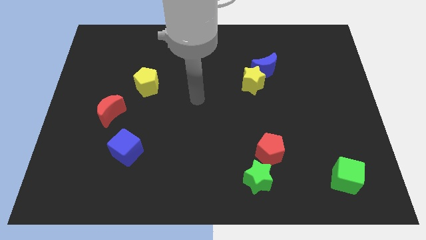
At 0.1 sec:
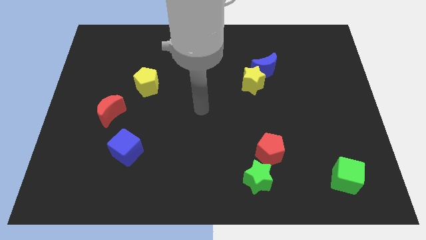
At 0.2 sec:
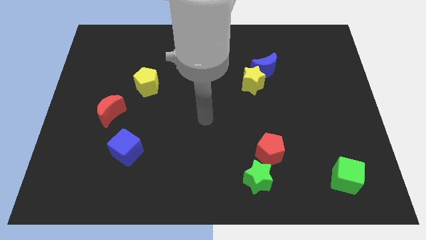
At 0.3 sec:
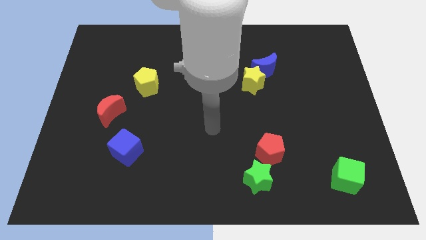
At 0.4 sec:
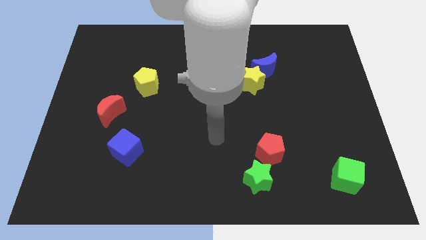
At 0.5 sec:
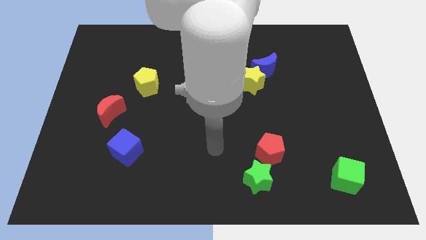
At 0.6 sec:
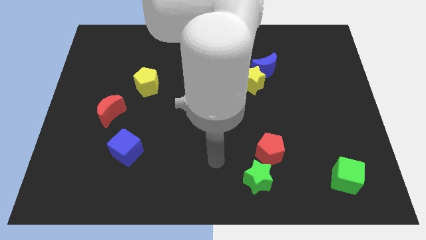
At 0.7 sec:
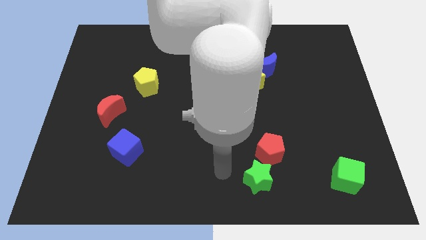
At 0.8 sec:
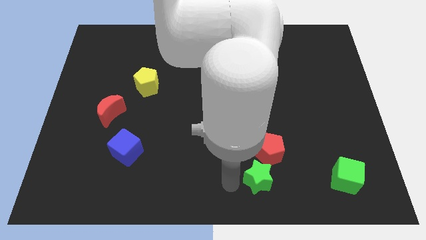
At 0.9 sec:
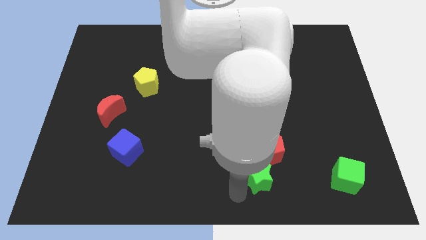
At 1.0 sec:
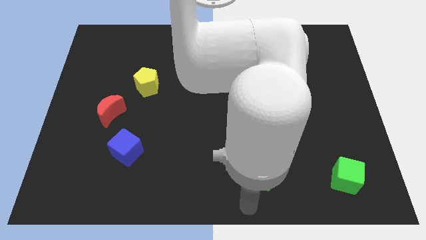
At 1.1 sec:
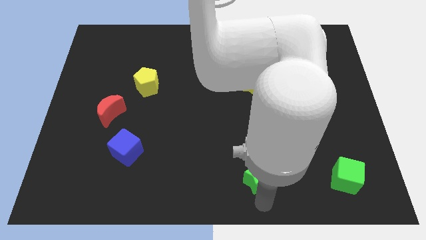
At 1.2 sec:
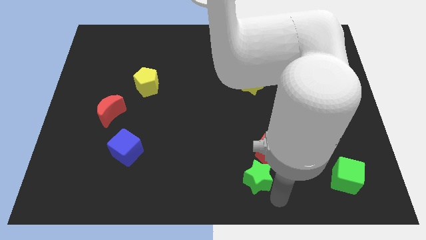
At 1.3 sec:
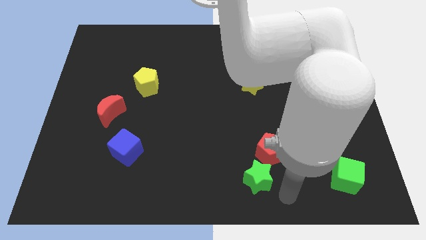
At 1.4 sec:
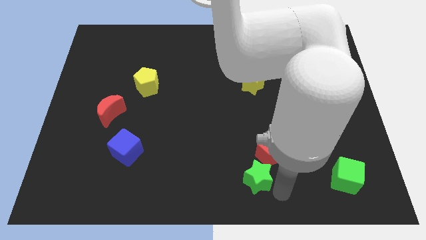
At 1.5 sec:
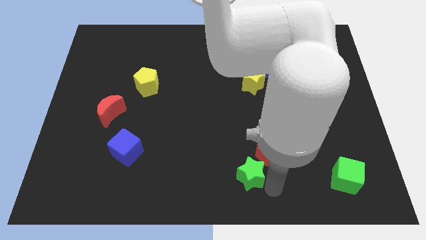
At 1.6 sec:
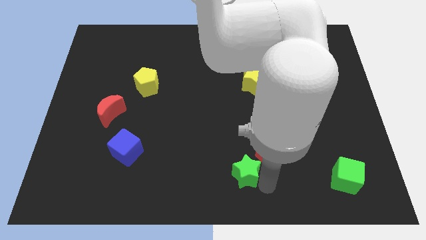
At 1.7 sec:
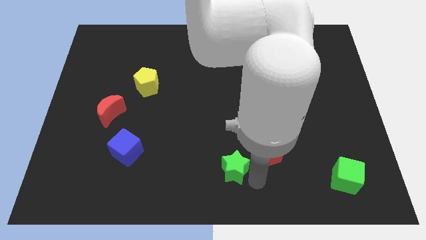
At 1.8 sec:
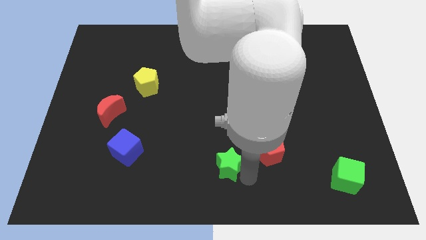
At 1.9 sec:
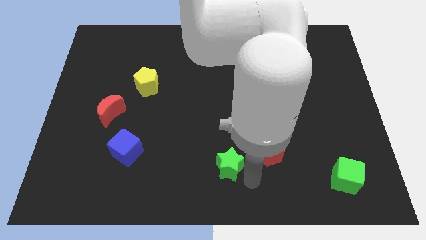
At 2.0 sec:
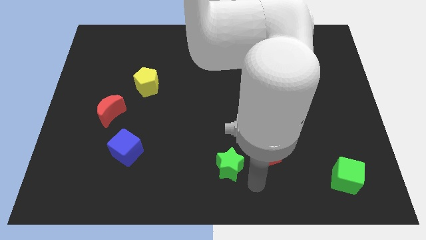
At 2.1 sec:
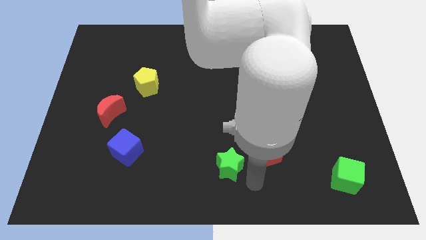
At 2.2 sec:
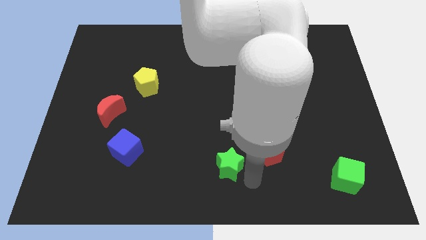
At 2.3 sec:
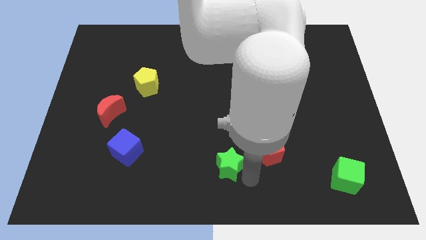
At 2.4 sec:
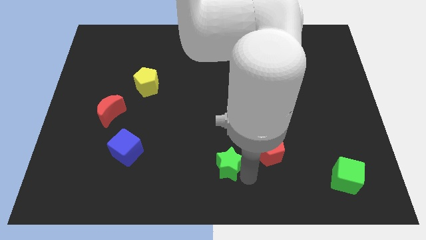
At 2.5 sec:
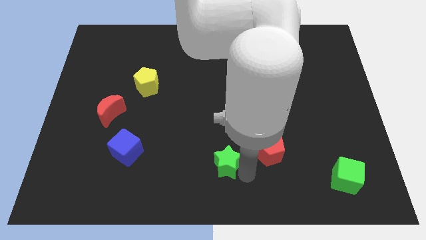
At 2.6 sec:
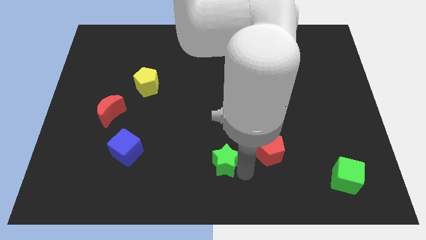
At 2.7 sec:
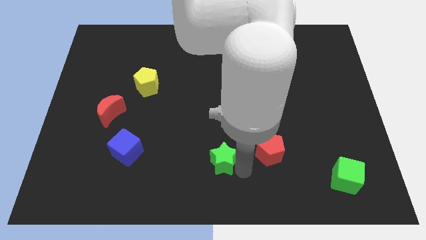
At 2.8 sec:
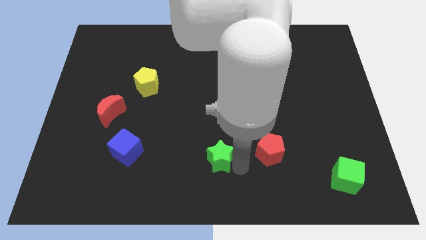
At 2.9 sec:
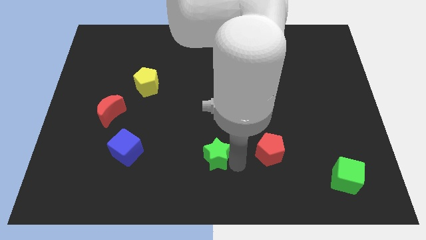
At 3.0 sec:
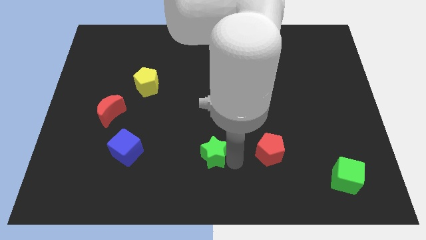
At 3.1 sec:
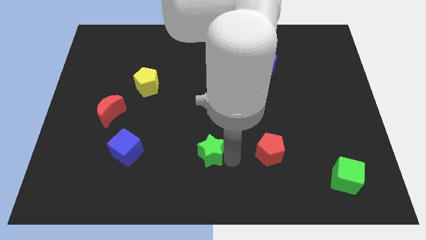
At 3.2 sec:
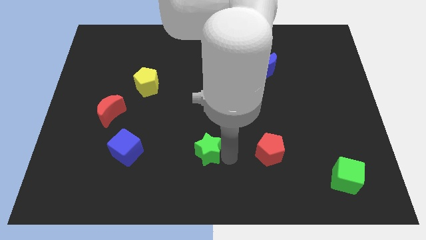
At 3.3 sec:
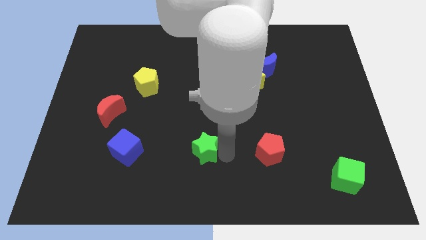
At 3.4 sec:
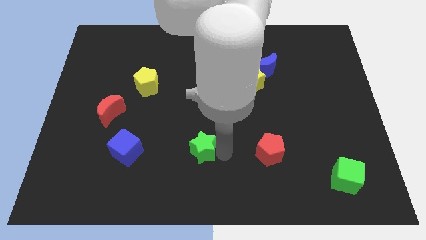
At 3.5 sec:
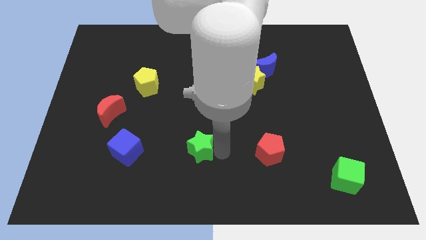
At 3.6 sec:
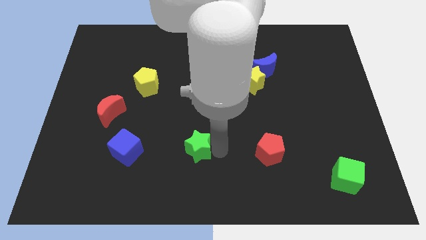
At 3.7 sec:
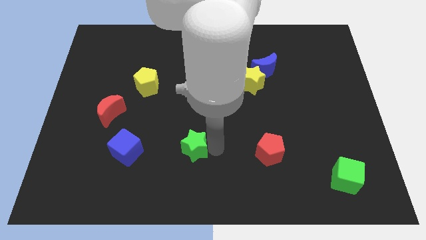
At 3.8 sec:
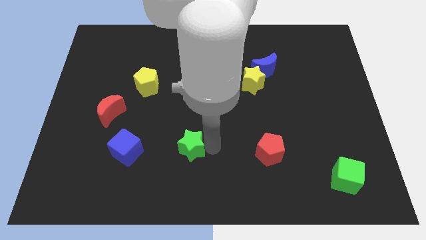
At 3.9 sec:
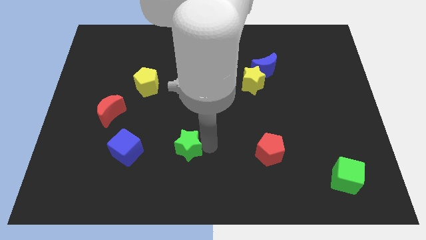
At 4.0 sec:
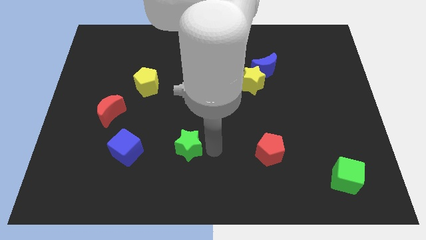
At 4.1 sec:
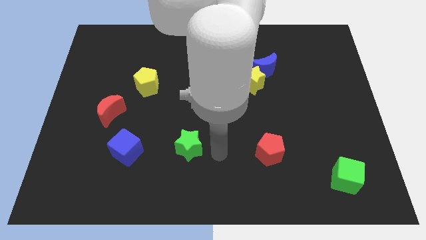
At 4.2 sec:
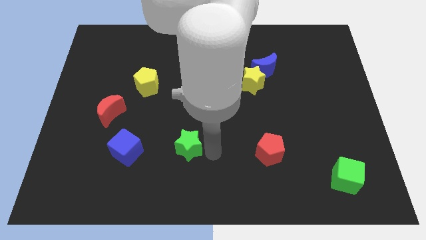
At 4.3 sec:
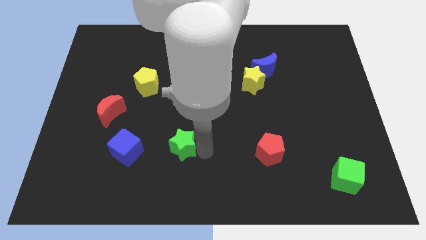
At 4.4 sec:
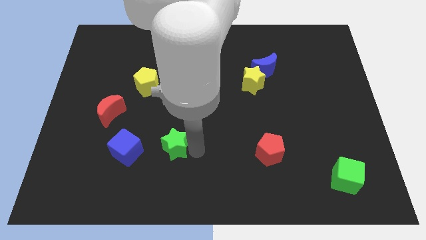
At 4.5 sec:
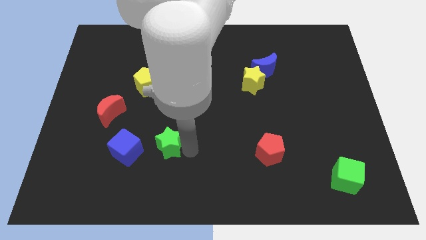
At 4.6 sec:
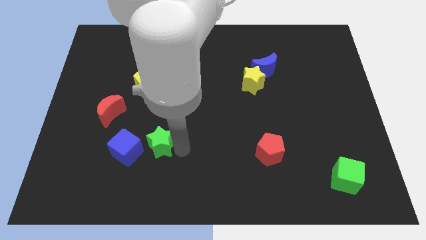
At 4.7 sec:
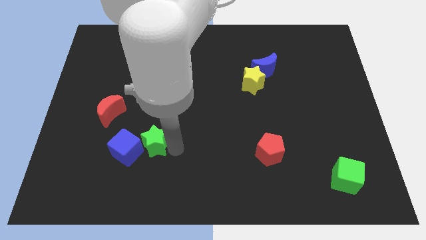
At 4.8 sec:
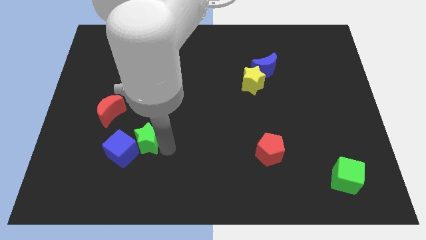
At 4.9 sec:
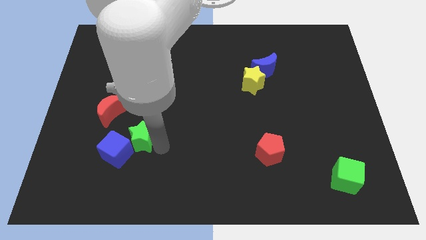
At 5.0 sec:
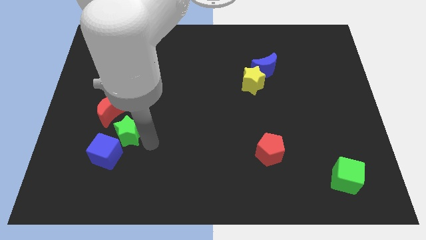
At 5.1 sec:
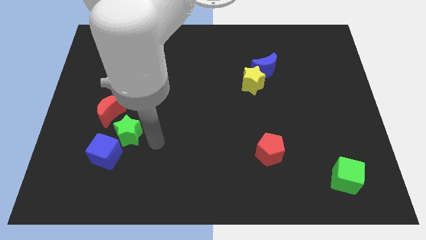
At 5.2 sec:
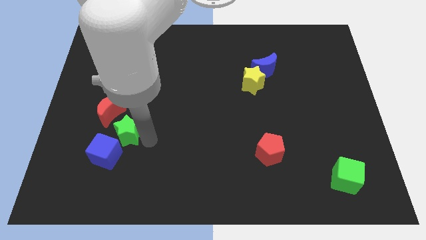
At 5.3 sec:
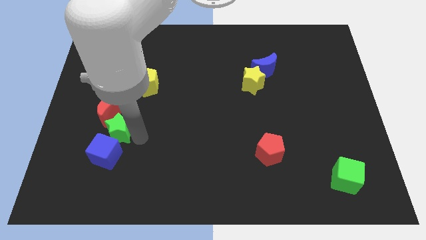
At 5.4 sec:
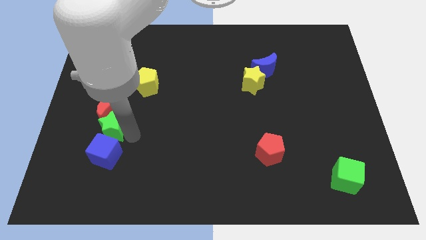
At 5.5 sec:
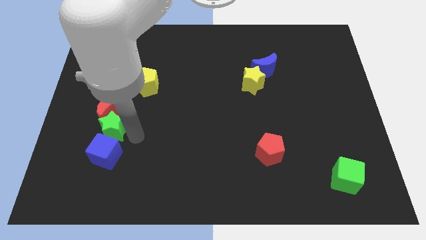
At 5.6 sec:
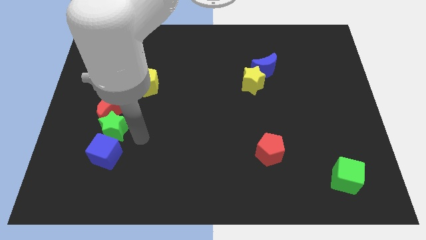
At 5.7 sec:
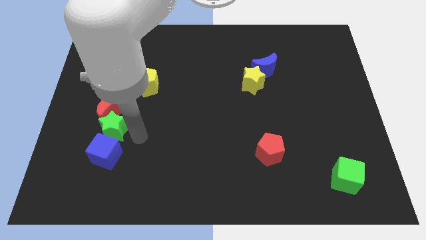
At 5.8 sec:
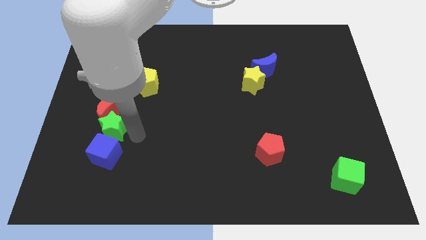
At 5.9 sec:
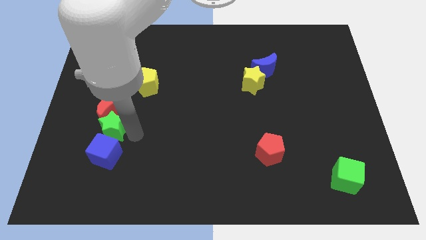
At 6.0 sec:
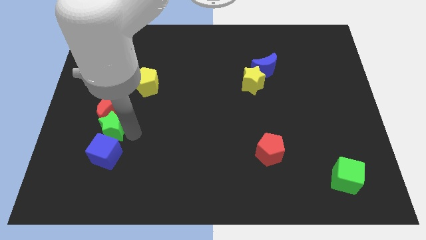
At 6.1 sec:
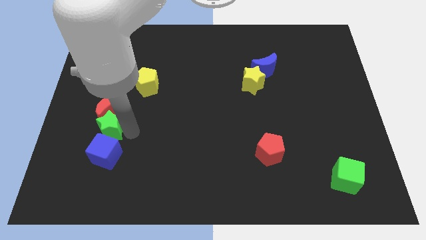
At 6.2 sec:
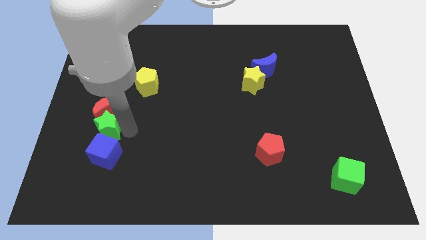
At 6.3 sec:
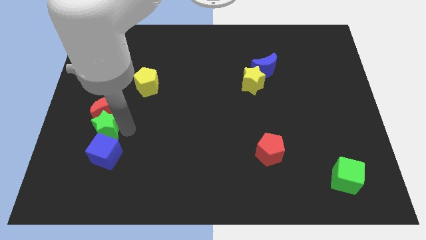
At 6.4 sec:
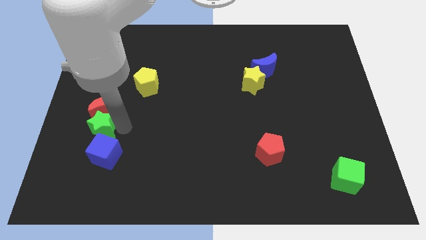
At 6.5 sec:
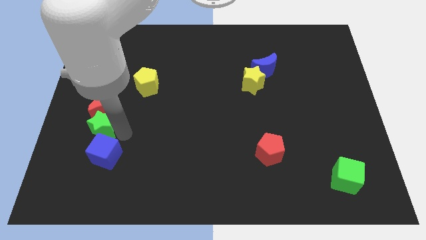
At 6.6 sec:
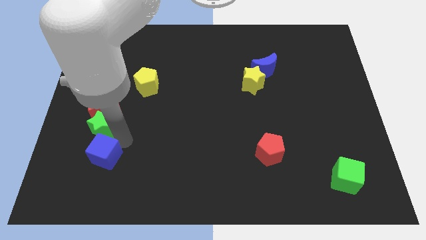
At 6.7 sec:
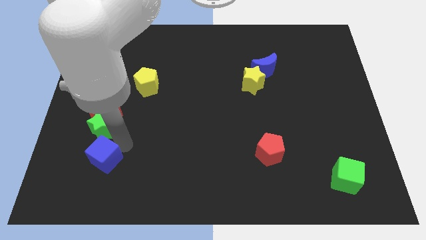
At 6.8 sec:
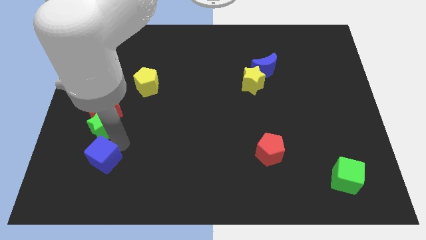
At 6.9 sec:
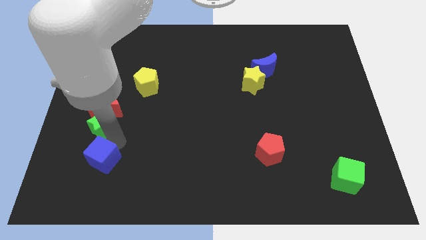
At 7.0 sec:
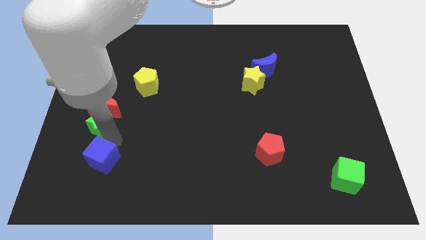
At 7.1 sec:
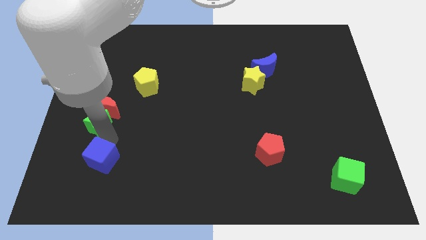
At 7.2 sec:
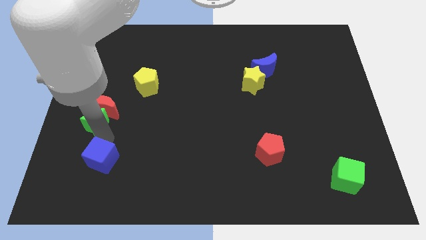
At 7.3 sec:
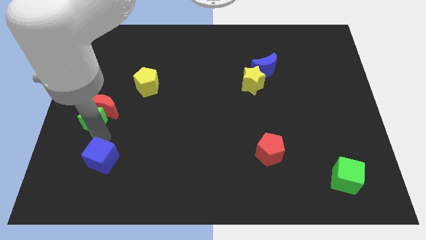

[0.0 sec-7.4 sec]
move the green star to the center left
